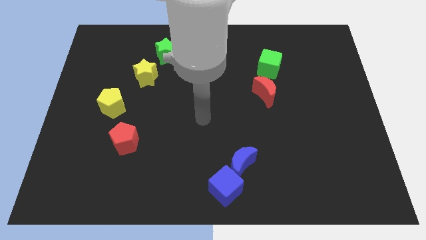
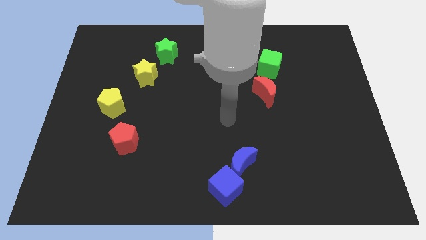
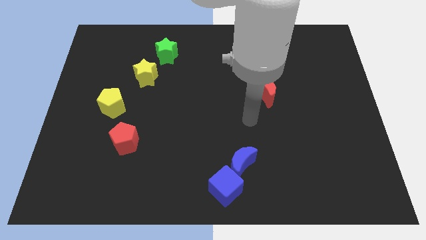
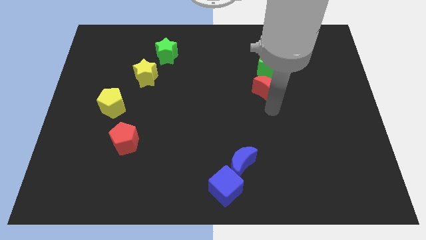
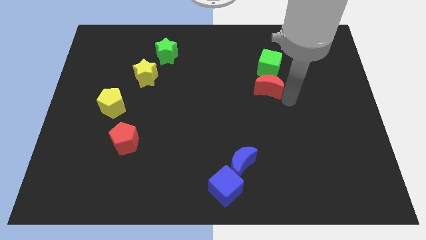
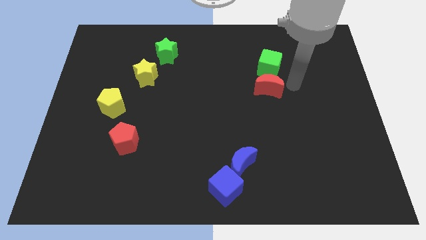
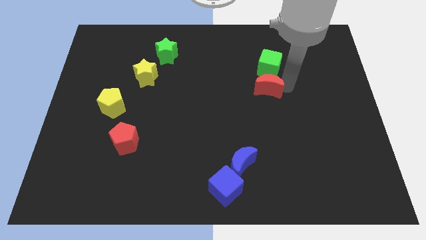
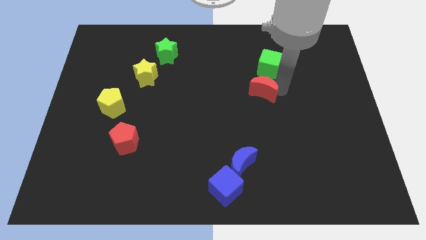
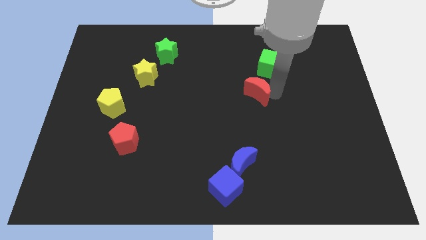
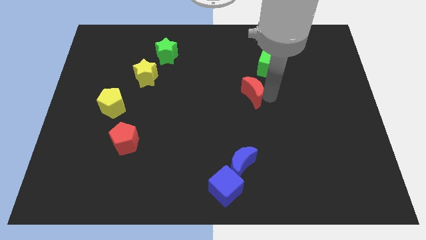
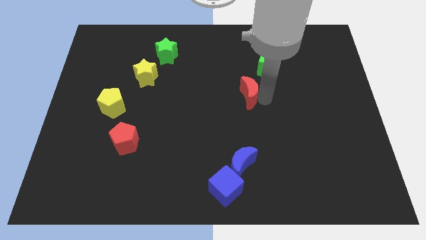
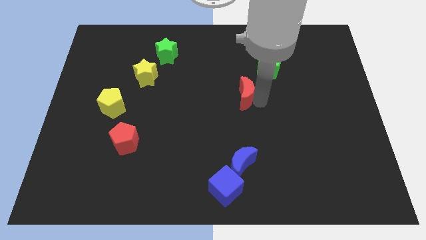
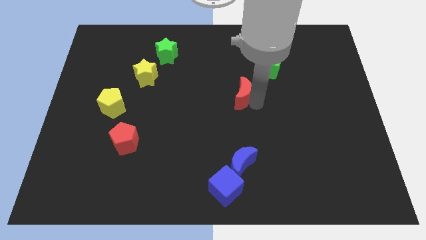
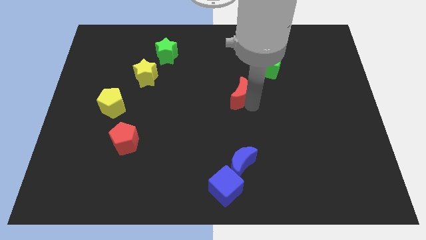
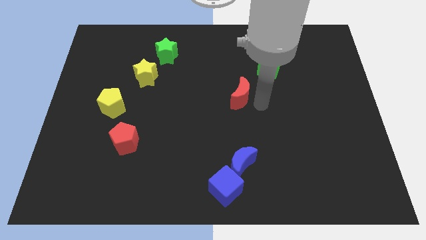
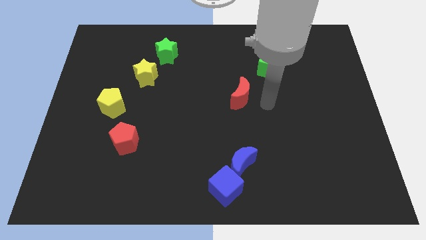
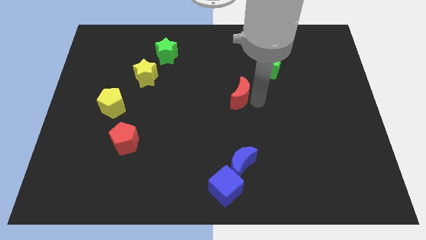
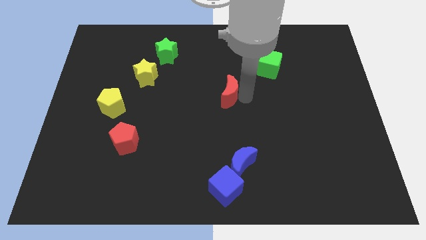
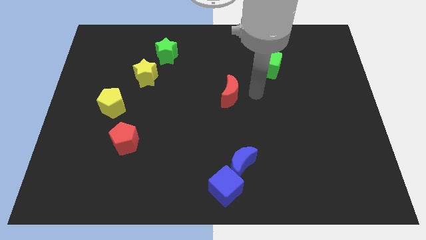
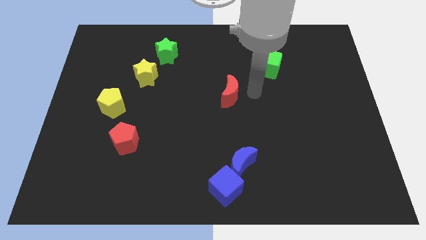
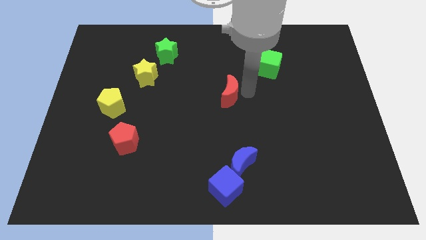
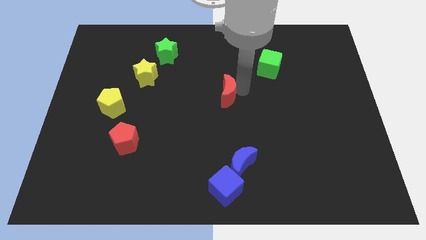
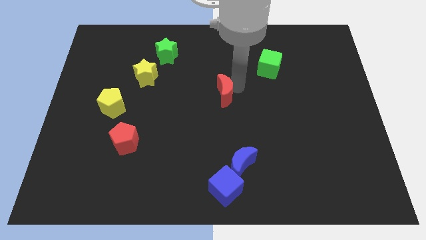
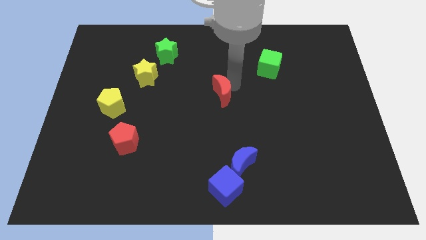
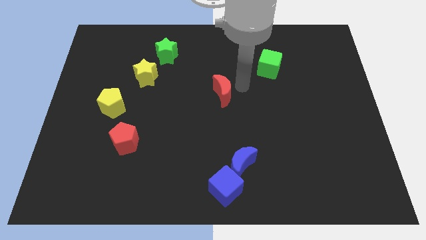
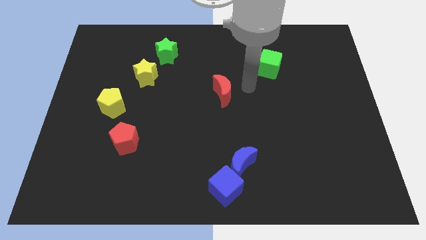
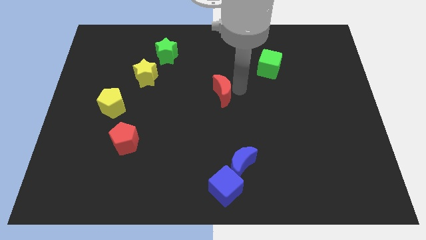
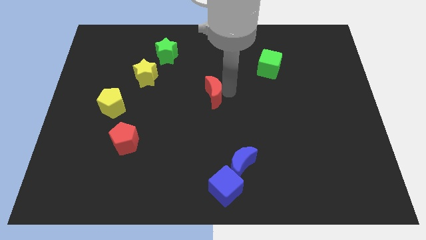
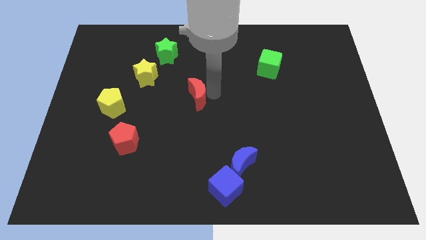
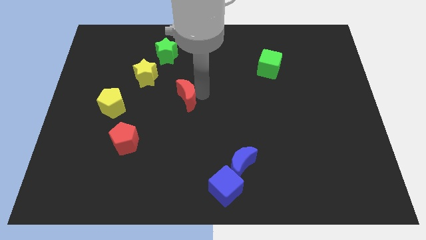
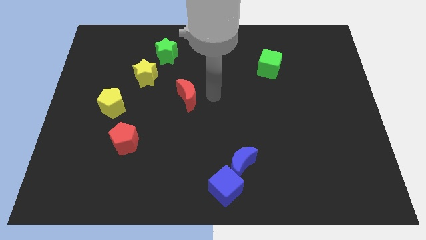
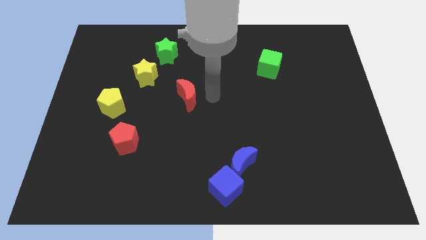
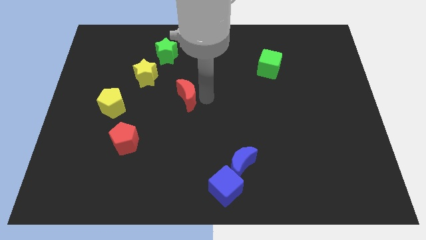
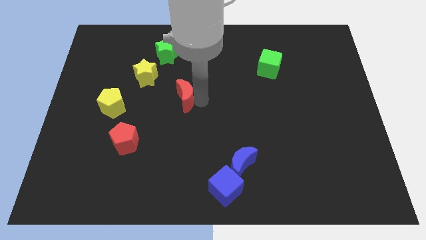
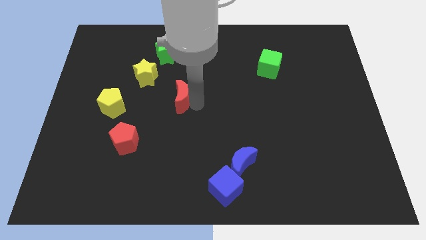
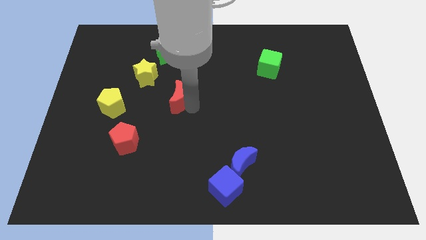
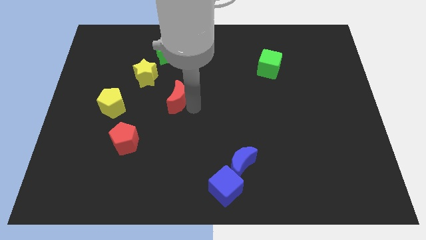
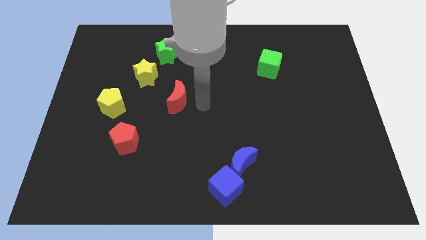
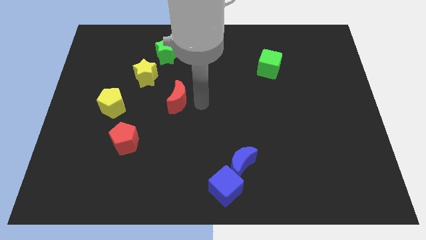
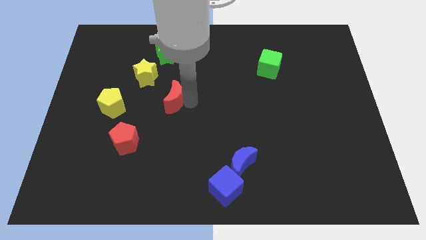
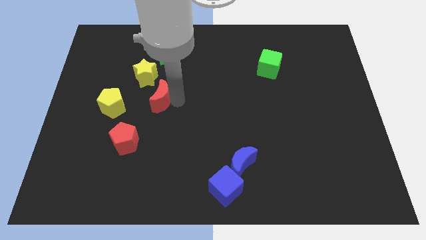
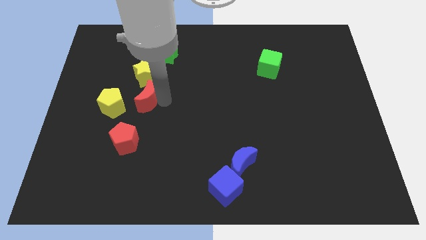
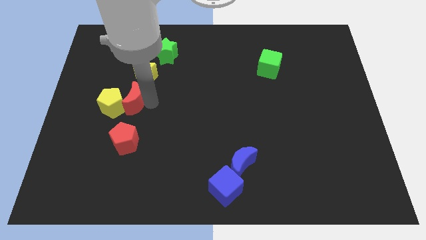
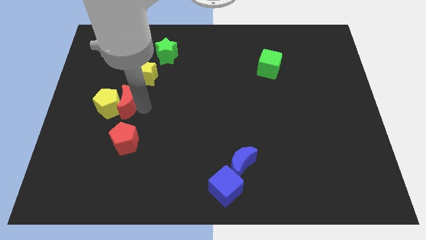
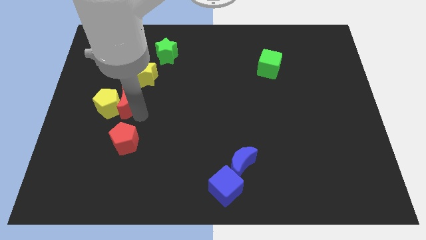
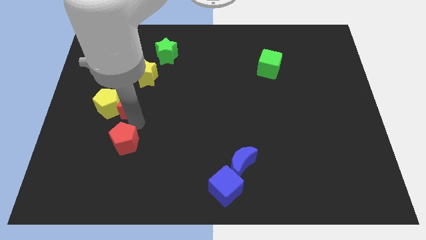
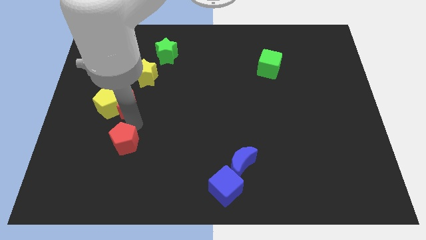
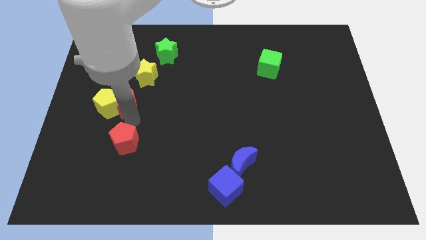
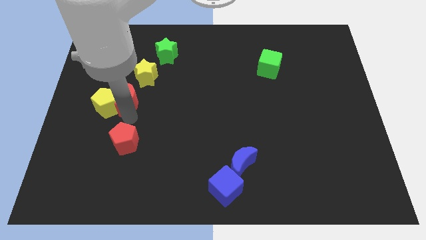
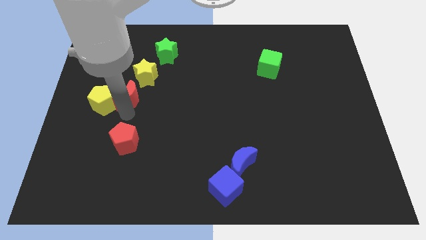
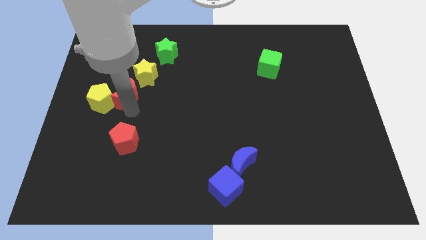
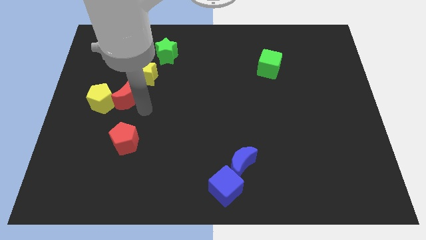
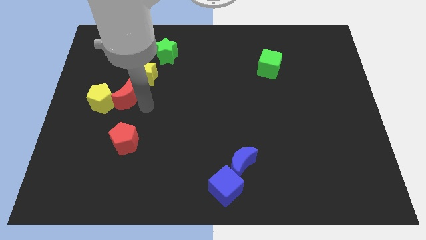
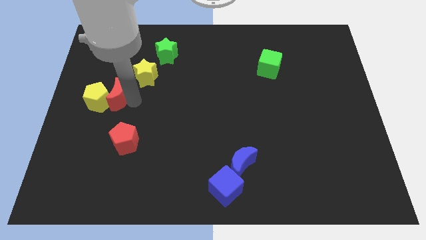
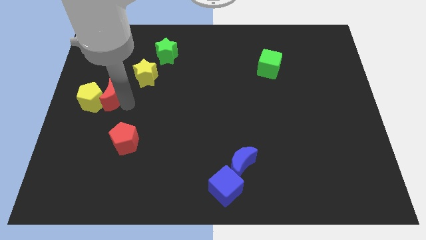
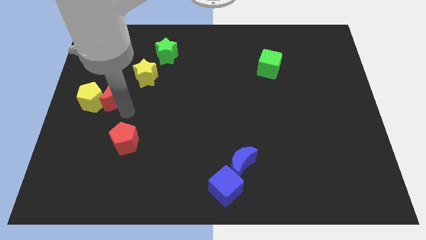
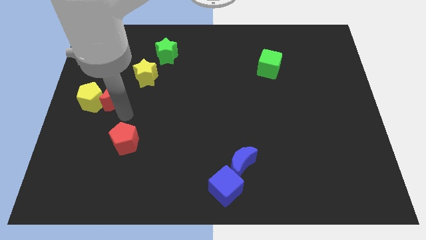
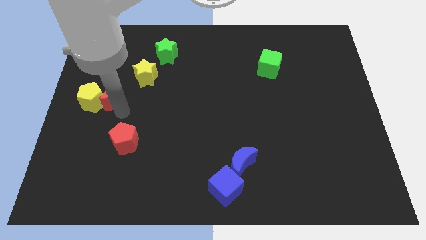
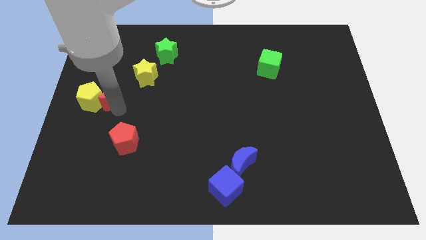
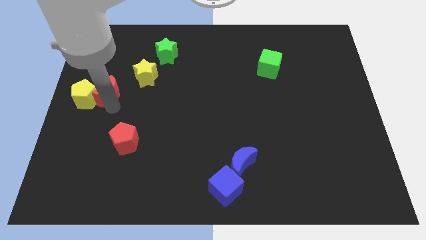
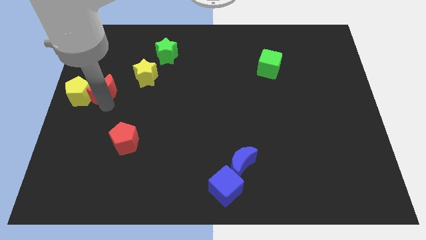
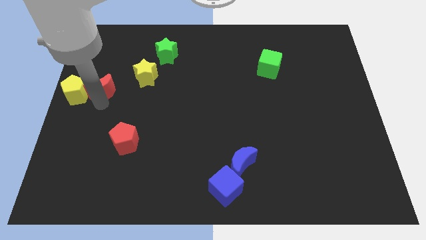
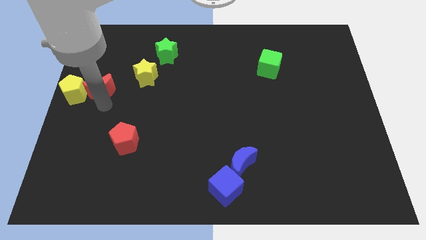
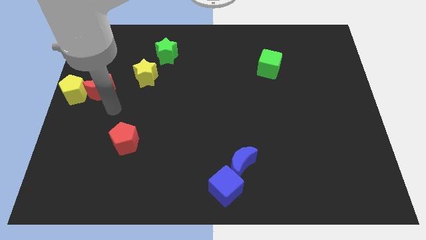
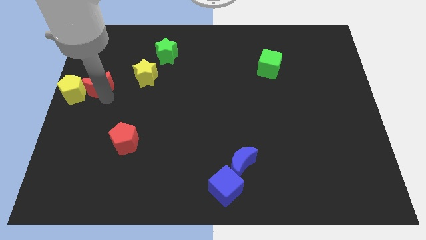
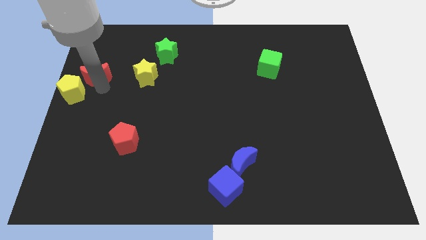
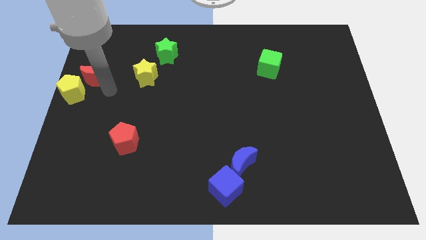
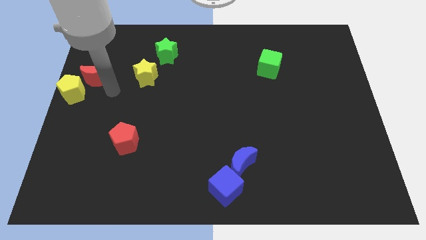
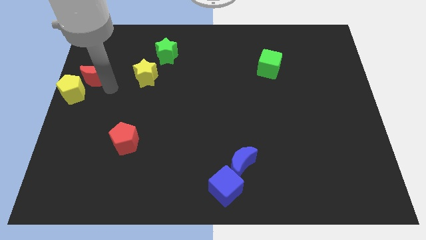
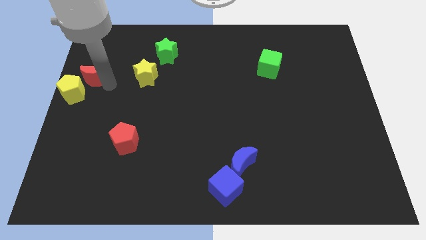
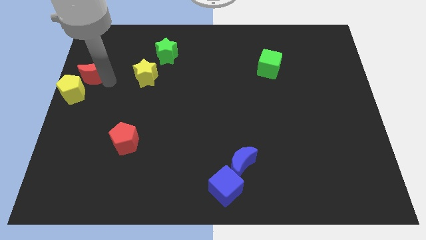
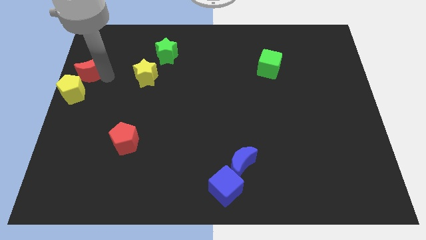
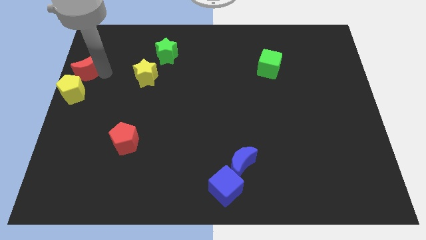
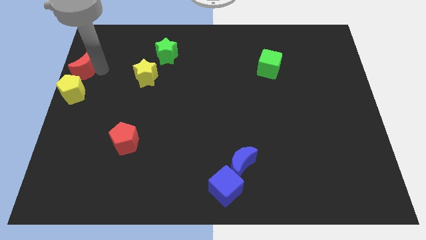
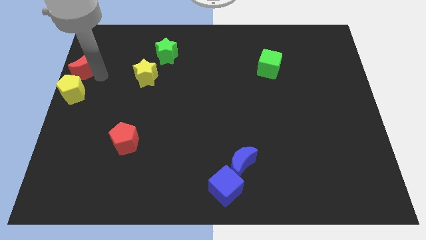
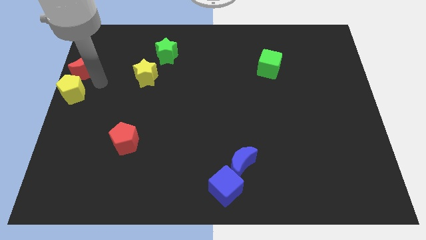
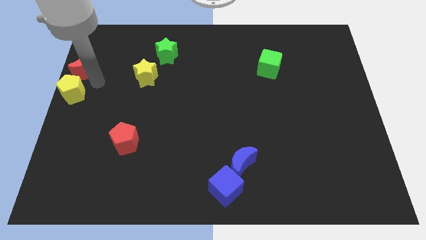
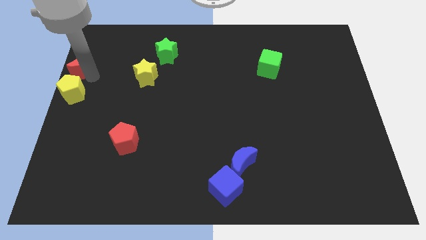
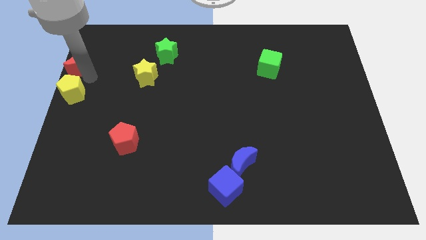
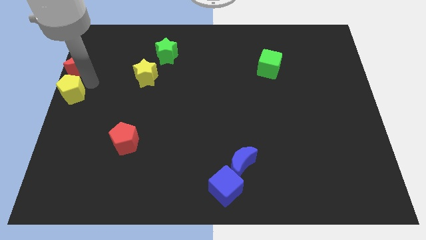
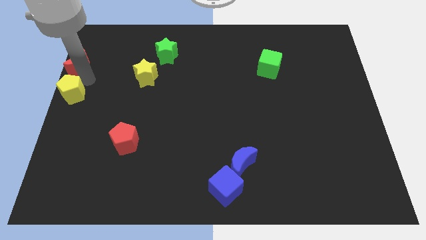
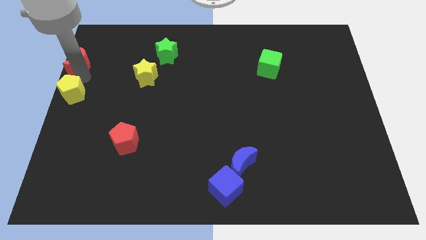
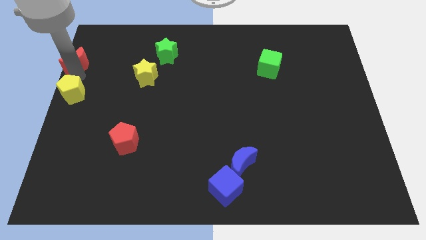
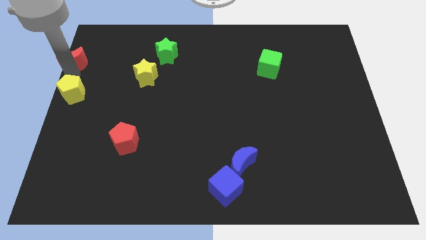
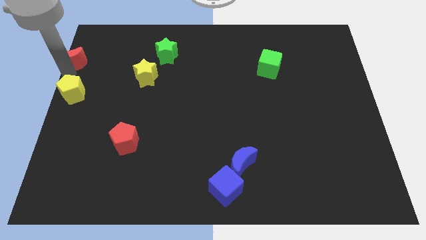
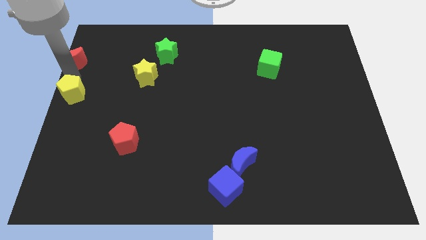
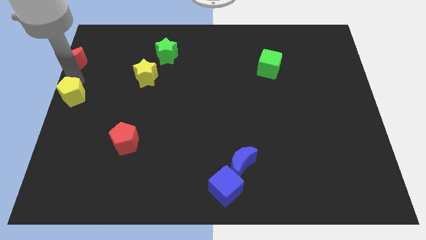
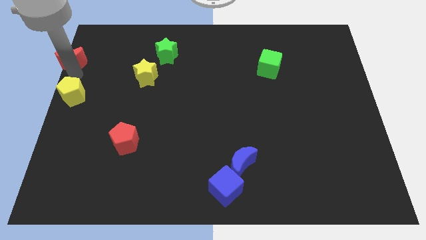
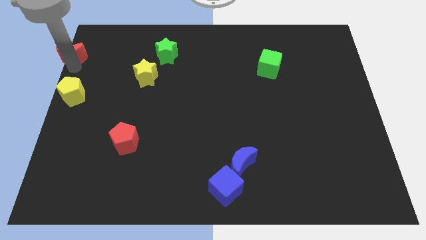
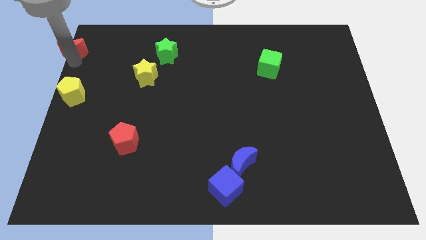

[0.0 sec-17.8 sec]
move the red moon to the top left corner
